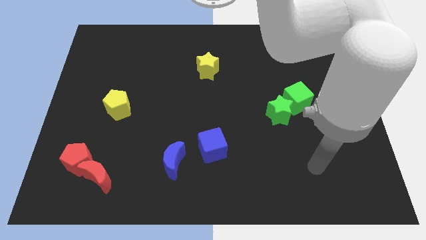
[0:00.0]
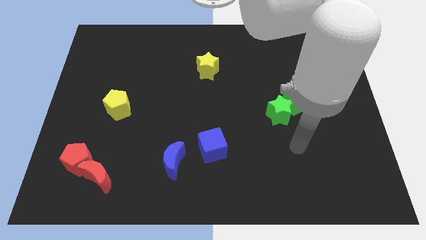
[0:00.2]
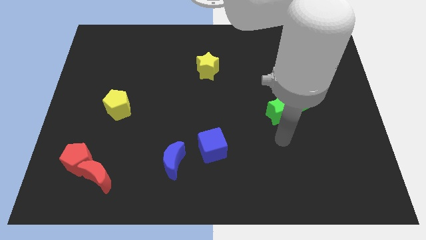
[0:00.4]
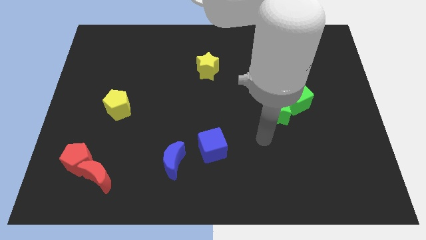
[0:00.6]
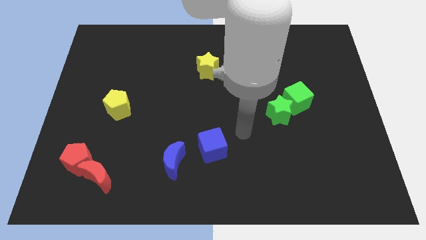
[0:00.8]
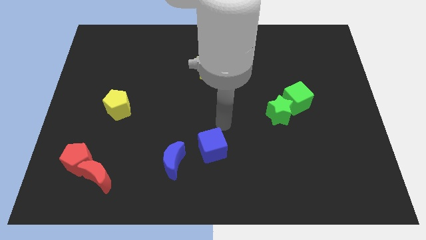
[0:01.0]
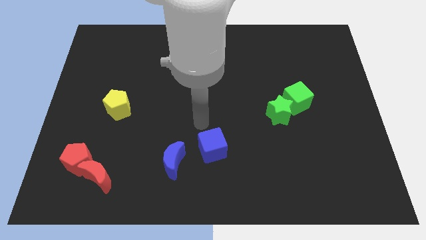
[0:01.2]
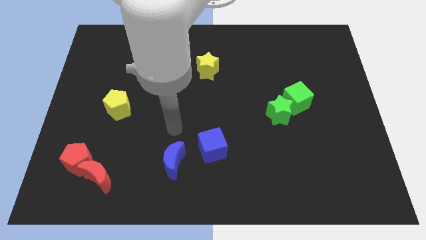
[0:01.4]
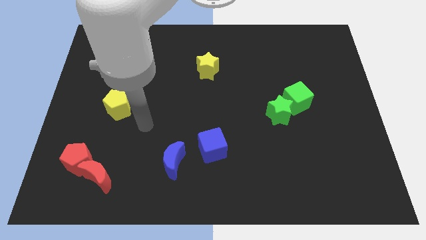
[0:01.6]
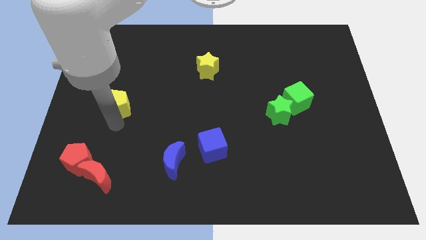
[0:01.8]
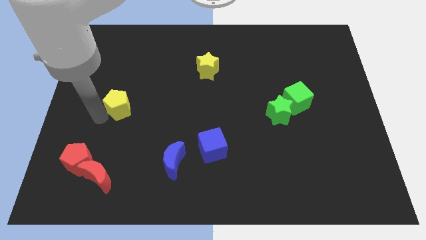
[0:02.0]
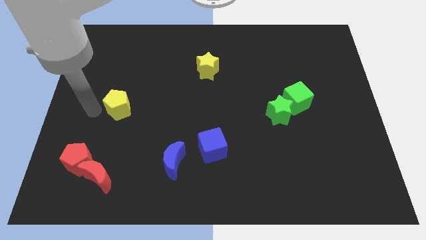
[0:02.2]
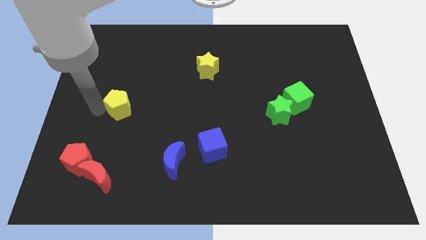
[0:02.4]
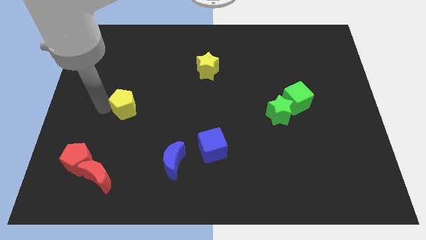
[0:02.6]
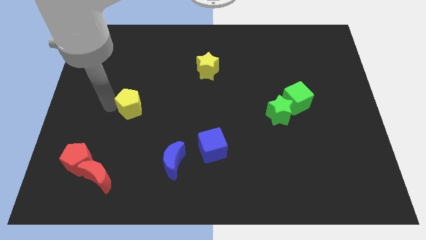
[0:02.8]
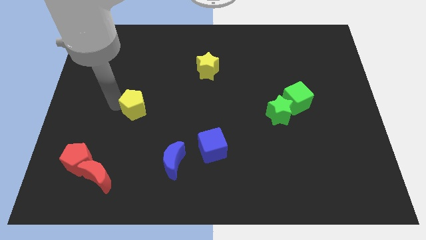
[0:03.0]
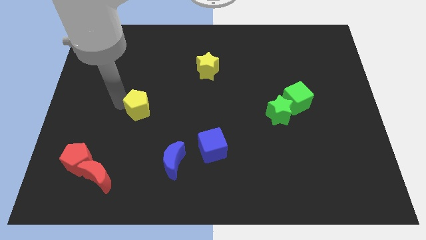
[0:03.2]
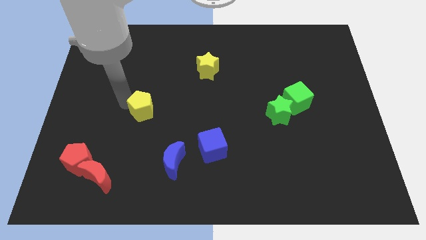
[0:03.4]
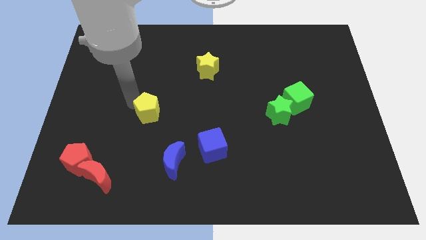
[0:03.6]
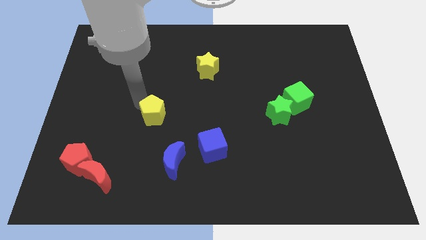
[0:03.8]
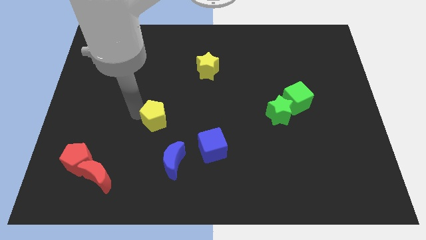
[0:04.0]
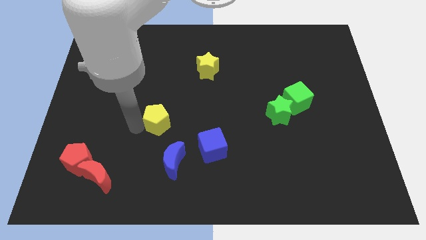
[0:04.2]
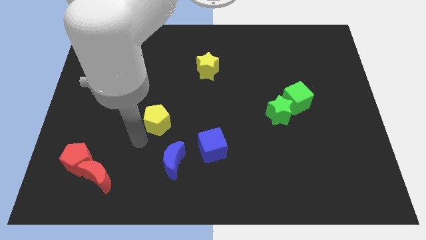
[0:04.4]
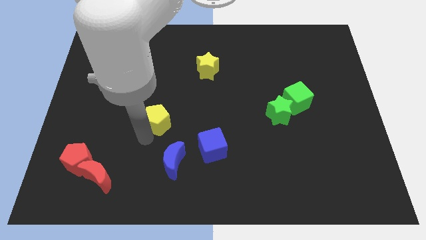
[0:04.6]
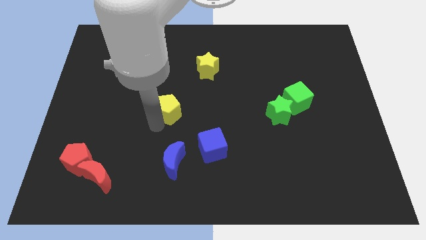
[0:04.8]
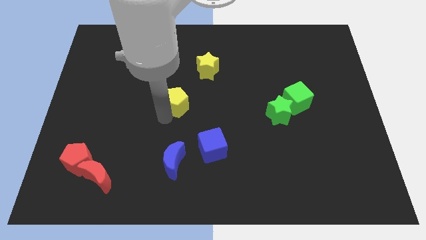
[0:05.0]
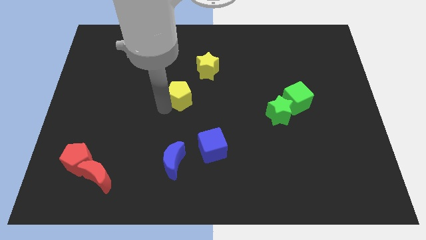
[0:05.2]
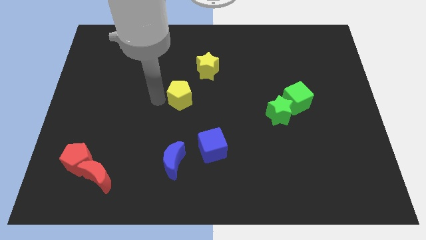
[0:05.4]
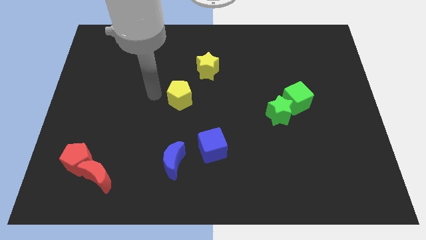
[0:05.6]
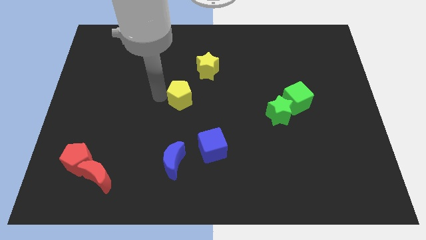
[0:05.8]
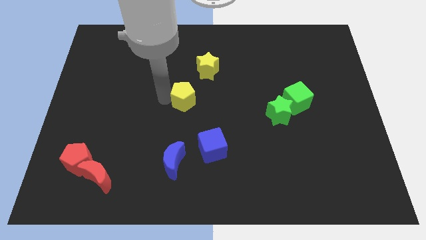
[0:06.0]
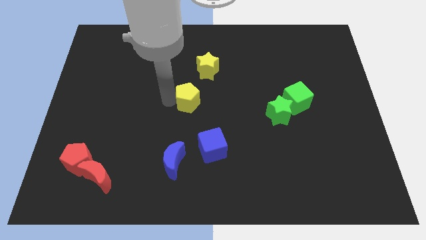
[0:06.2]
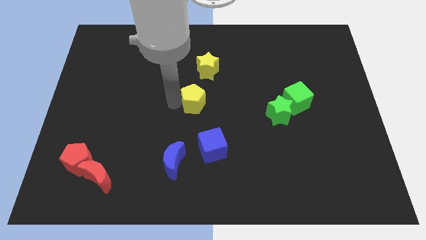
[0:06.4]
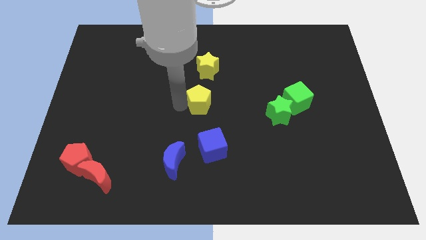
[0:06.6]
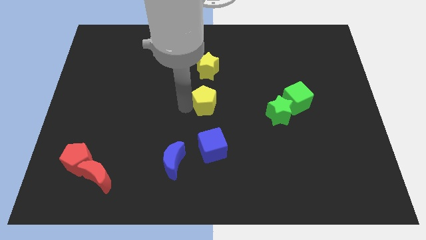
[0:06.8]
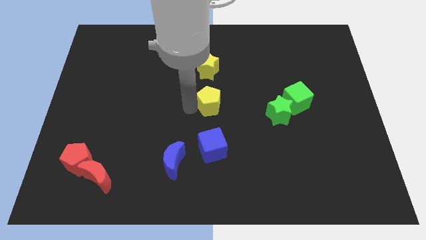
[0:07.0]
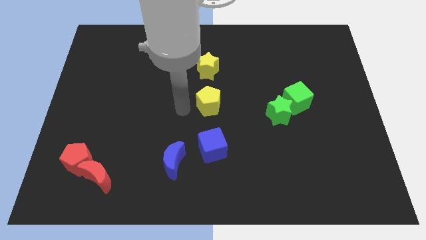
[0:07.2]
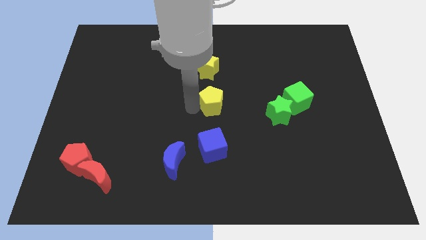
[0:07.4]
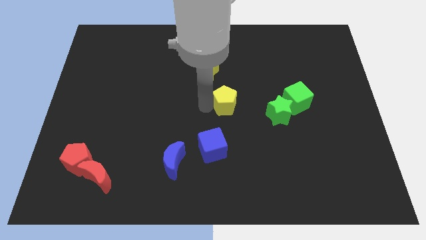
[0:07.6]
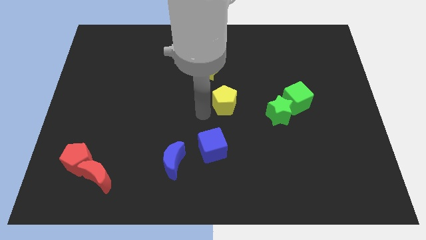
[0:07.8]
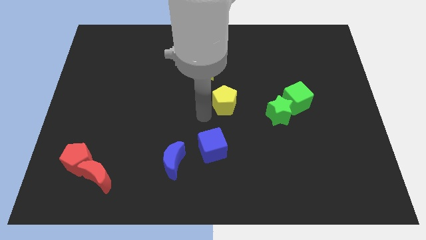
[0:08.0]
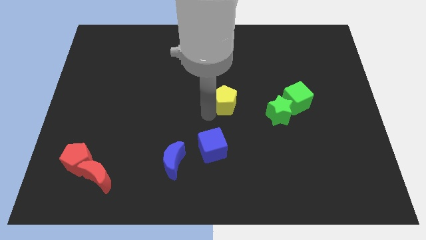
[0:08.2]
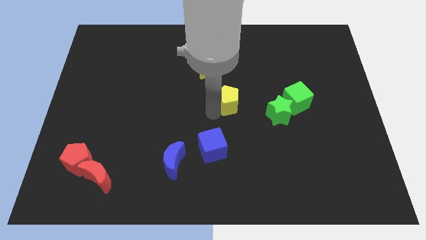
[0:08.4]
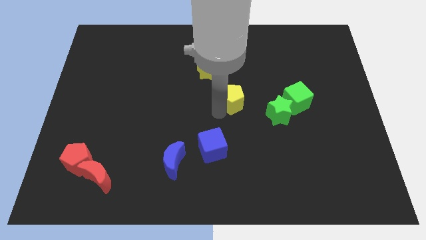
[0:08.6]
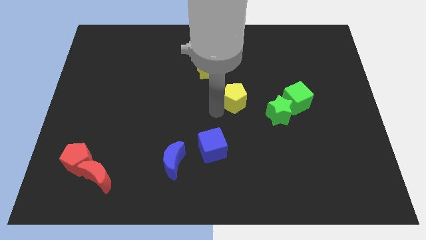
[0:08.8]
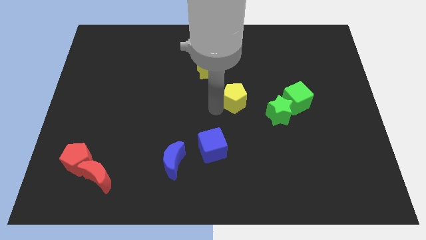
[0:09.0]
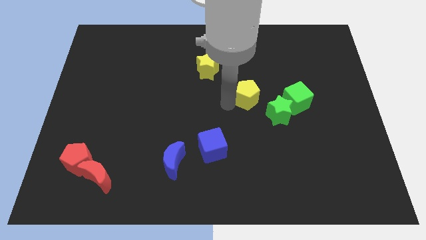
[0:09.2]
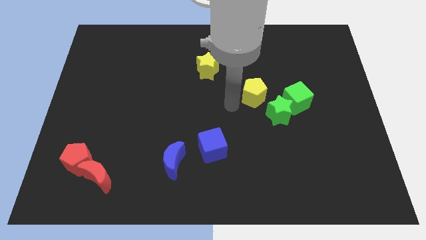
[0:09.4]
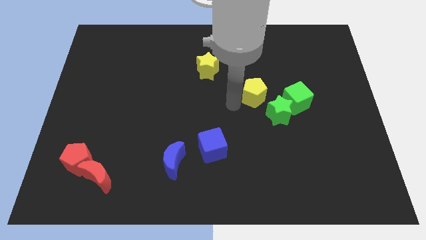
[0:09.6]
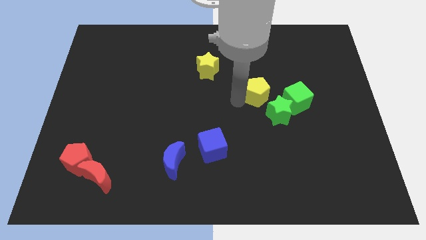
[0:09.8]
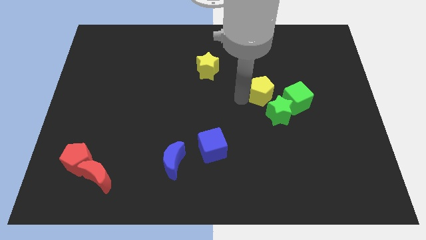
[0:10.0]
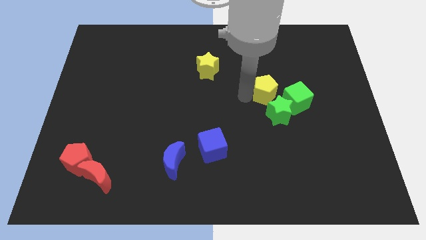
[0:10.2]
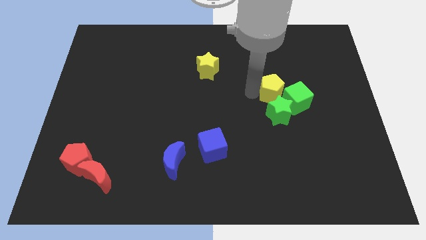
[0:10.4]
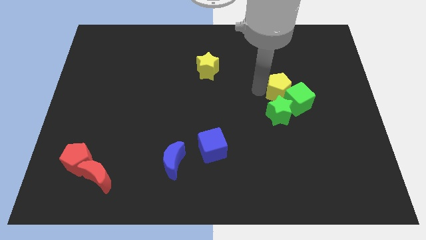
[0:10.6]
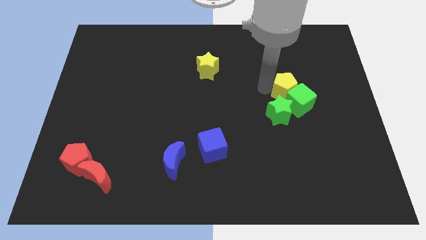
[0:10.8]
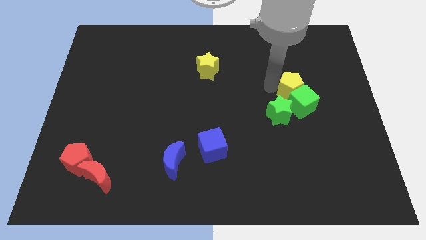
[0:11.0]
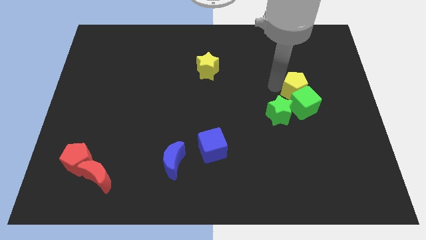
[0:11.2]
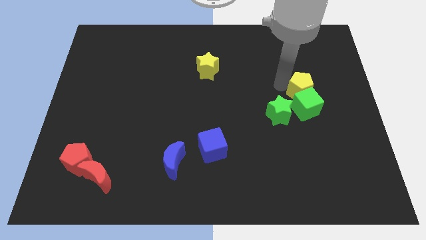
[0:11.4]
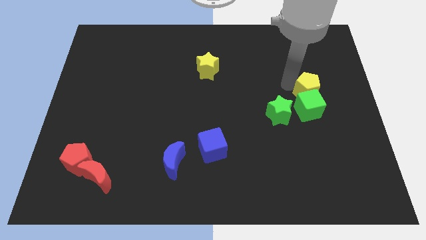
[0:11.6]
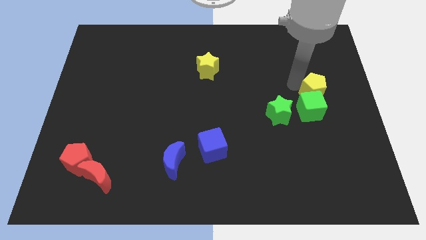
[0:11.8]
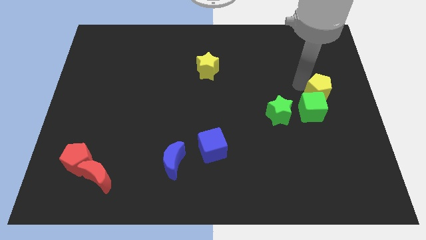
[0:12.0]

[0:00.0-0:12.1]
slide the yellow pentagon to the right side of the board
